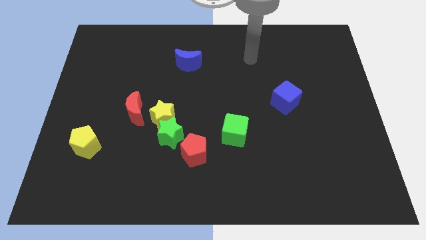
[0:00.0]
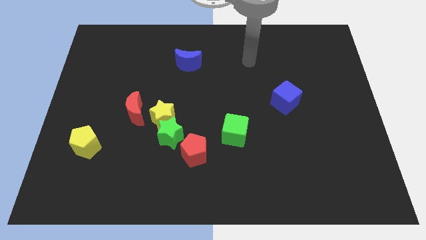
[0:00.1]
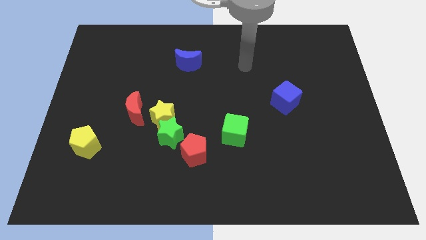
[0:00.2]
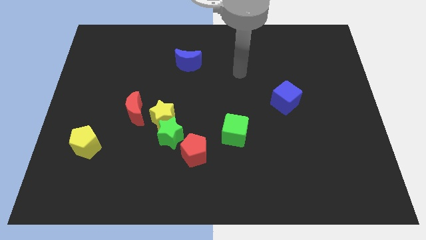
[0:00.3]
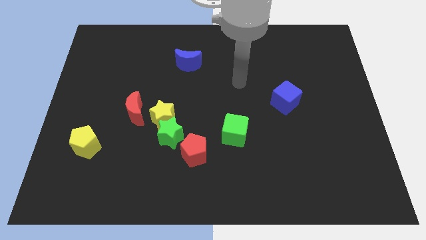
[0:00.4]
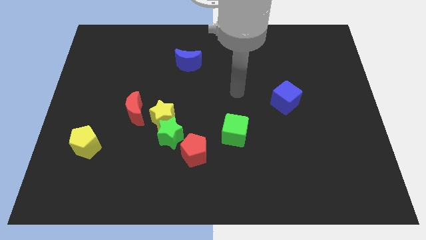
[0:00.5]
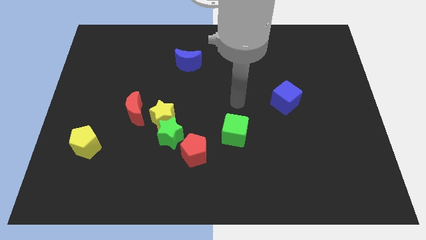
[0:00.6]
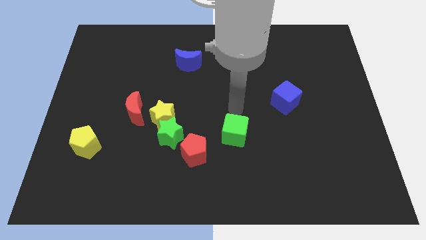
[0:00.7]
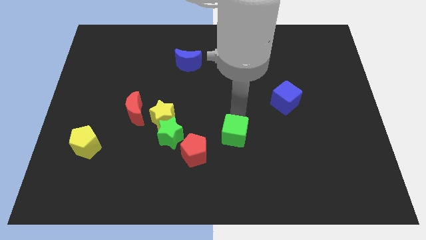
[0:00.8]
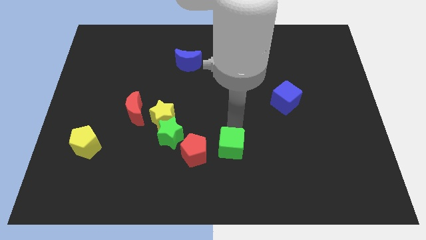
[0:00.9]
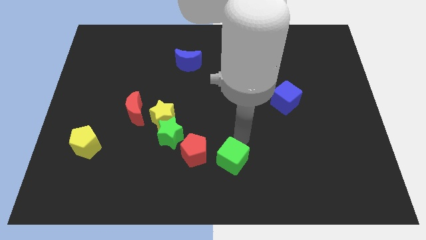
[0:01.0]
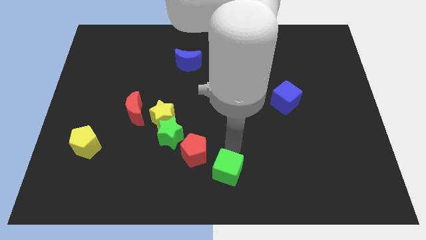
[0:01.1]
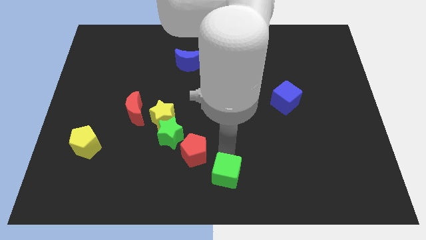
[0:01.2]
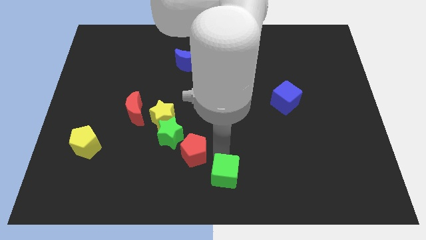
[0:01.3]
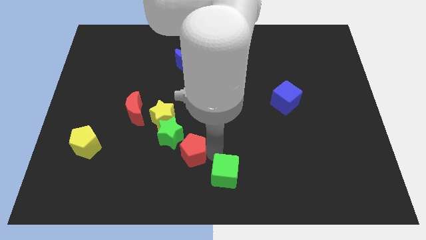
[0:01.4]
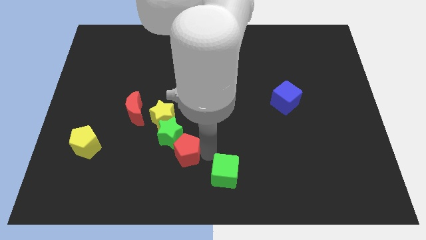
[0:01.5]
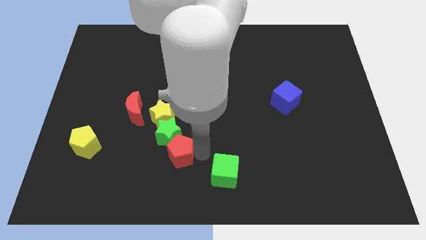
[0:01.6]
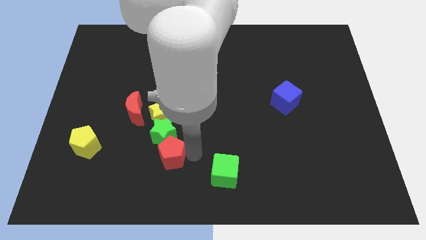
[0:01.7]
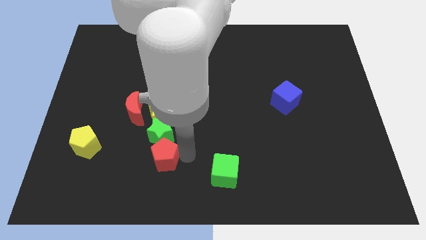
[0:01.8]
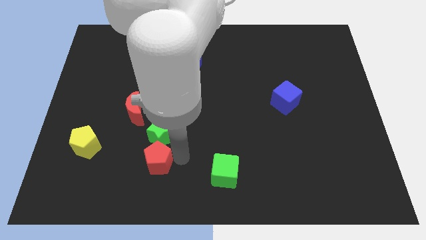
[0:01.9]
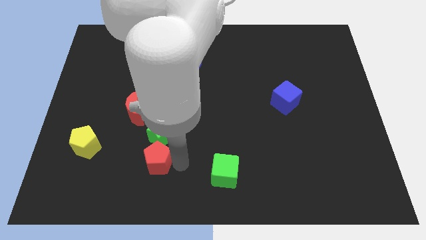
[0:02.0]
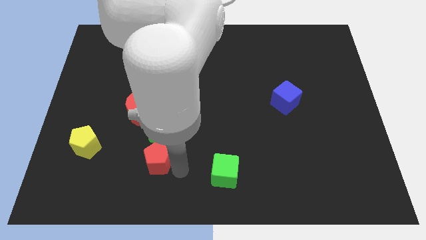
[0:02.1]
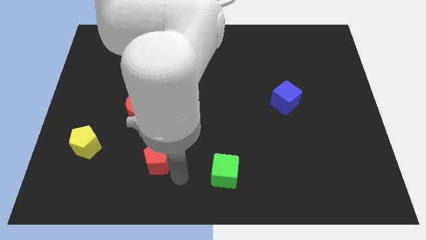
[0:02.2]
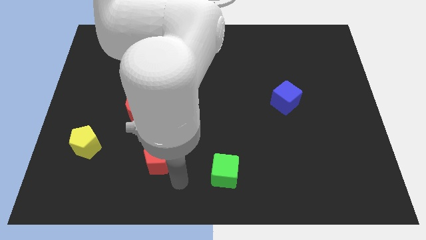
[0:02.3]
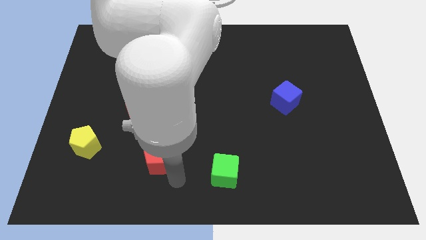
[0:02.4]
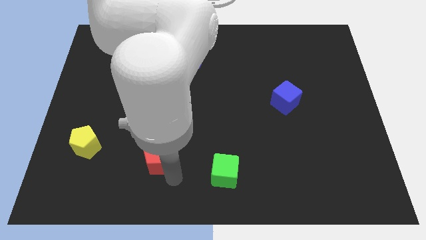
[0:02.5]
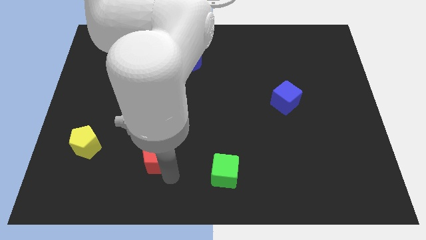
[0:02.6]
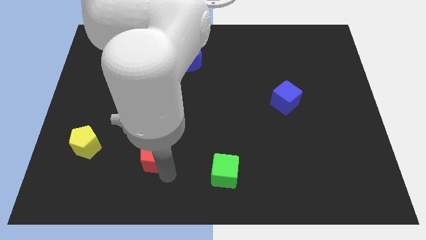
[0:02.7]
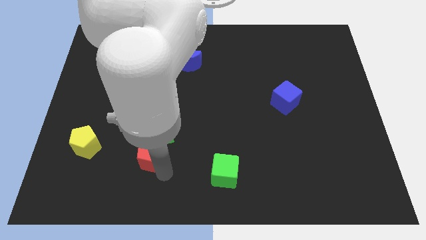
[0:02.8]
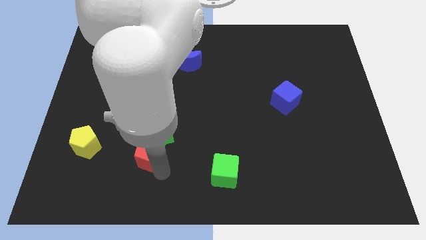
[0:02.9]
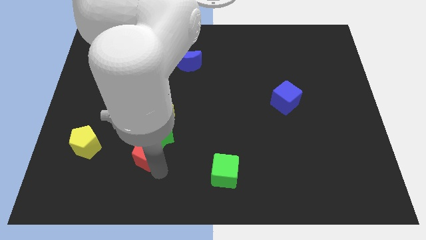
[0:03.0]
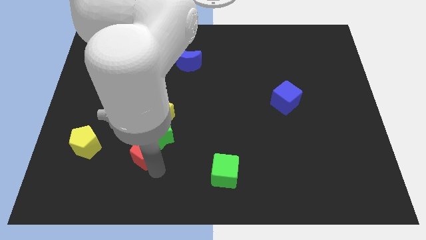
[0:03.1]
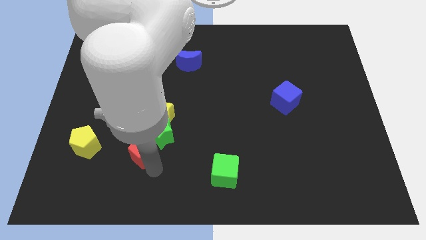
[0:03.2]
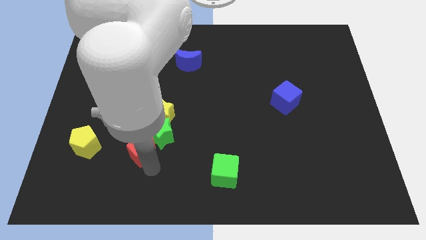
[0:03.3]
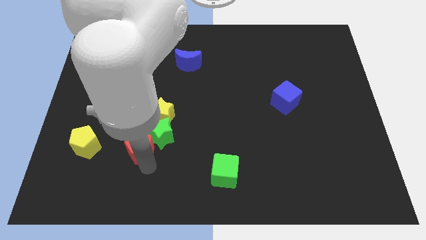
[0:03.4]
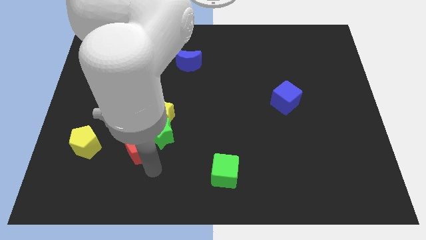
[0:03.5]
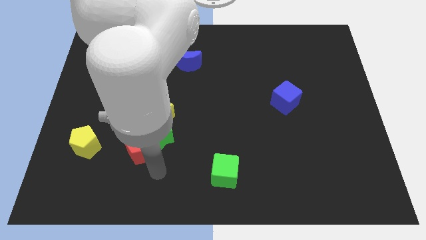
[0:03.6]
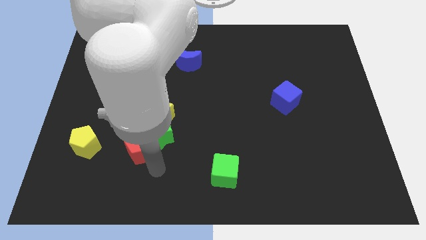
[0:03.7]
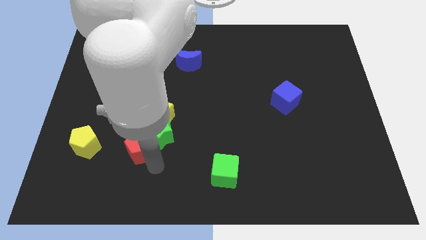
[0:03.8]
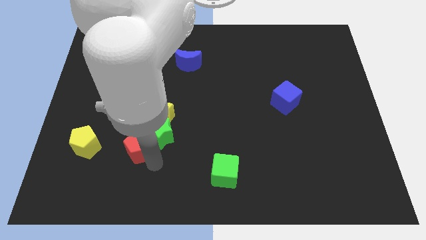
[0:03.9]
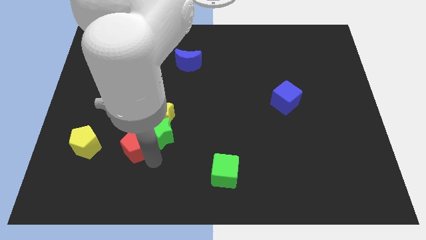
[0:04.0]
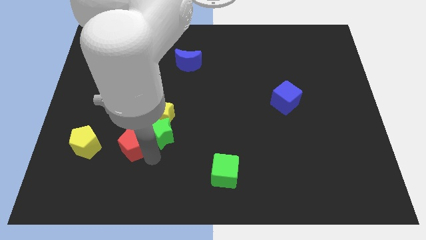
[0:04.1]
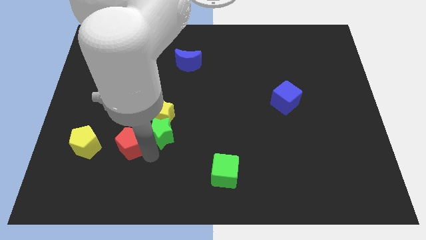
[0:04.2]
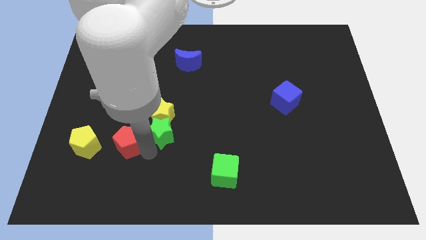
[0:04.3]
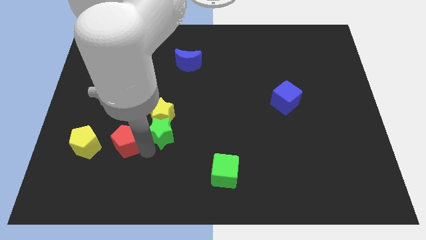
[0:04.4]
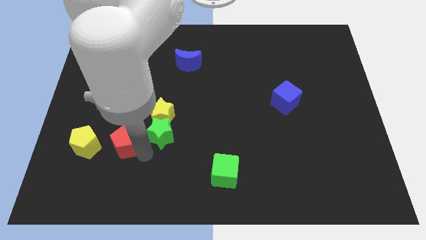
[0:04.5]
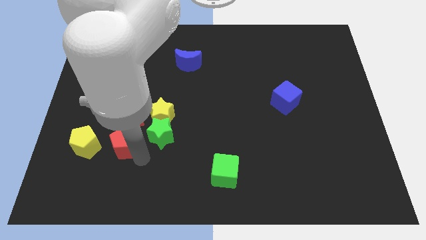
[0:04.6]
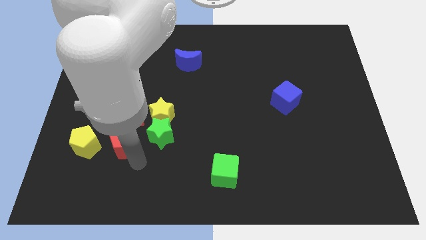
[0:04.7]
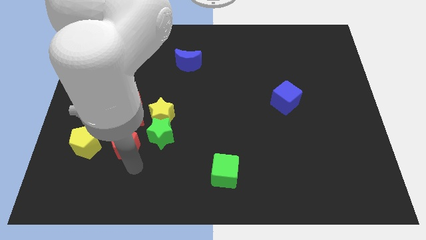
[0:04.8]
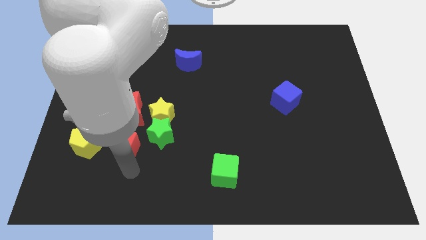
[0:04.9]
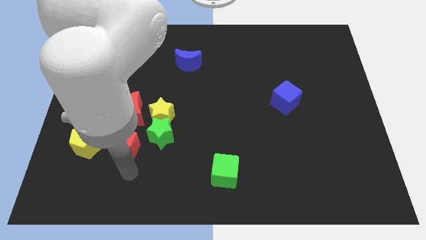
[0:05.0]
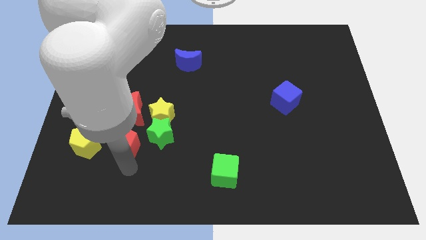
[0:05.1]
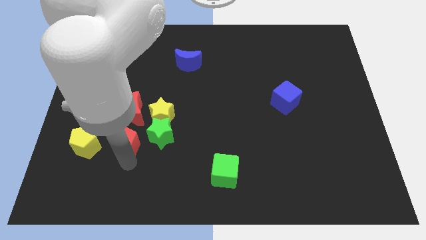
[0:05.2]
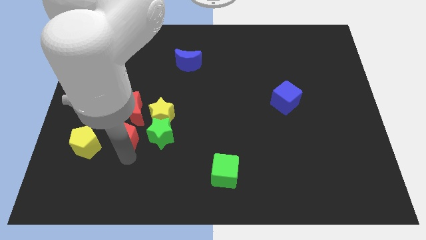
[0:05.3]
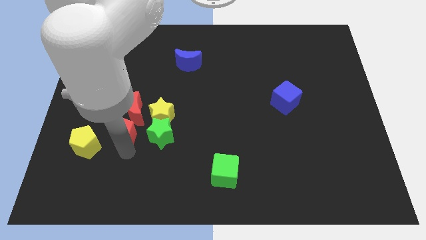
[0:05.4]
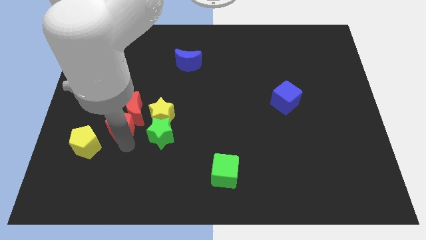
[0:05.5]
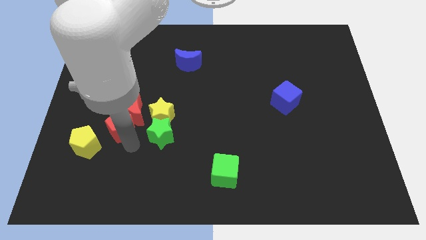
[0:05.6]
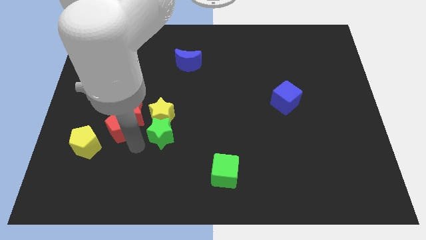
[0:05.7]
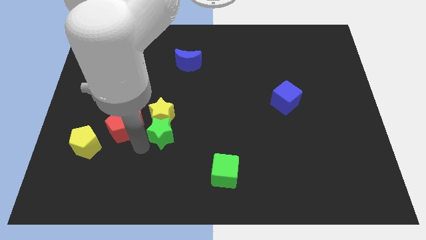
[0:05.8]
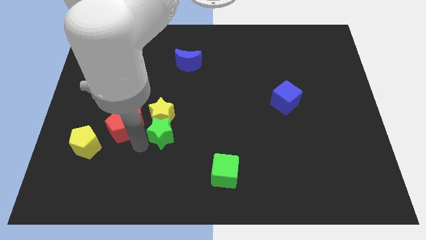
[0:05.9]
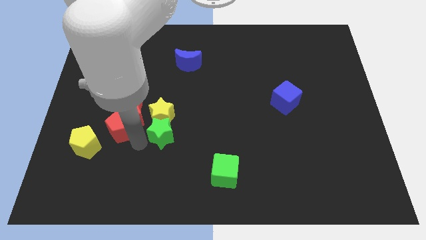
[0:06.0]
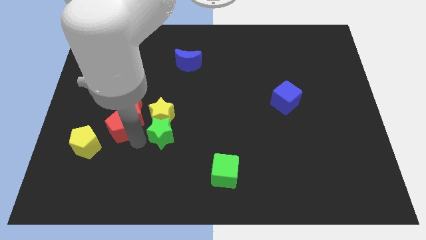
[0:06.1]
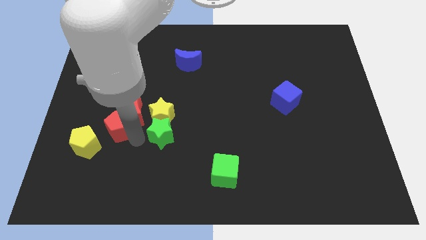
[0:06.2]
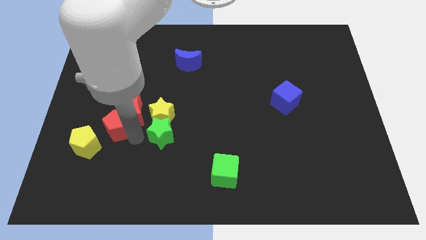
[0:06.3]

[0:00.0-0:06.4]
push the red pentagon just left of the red moon

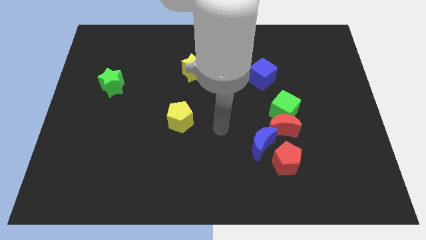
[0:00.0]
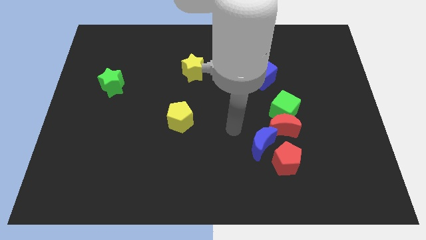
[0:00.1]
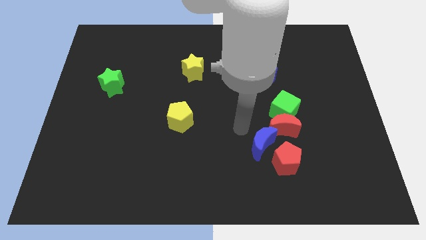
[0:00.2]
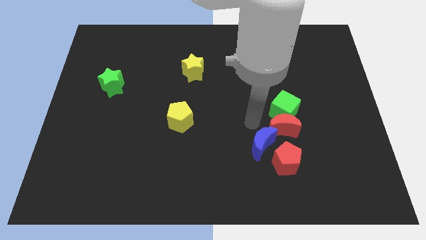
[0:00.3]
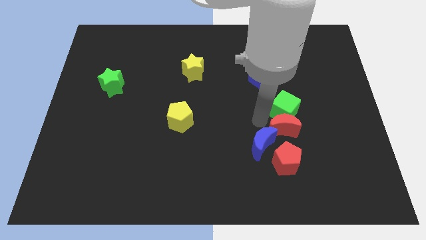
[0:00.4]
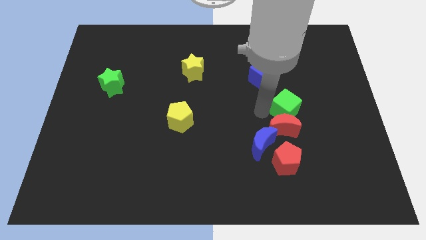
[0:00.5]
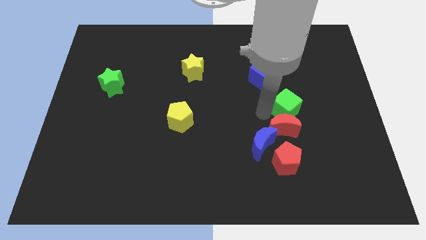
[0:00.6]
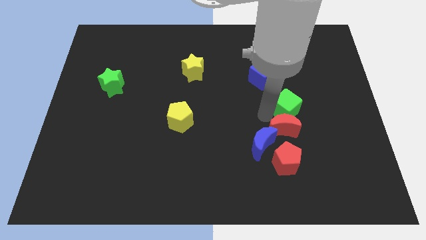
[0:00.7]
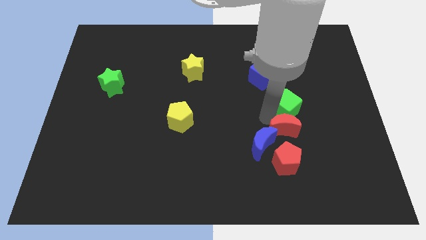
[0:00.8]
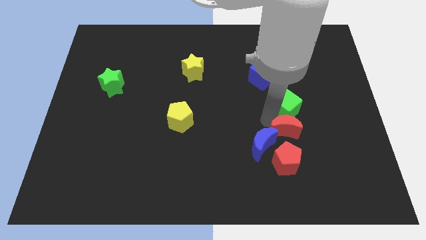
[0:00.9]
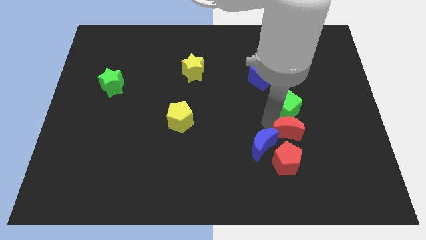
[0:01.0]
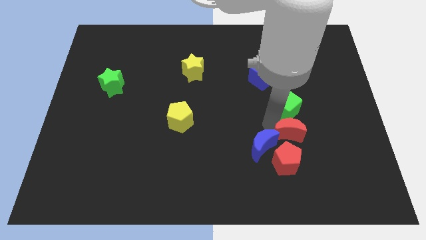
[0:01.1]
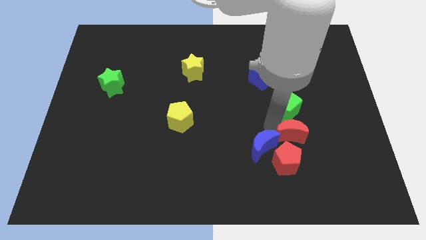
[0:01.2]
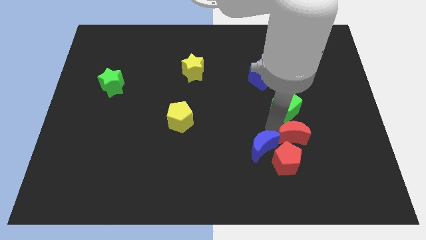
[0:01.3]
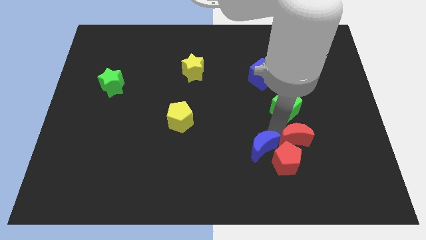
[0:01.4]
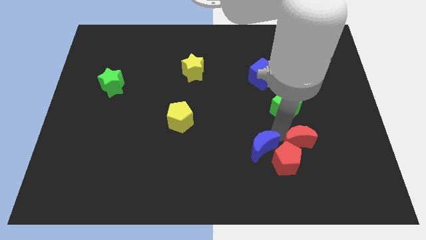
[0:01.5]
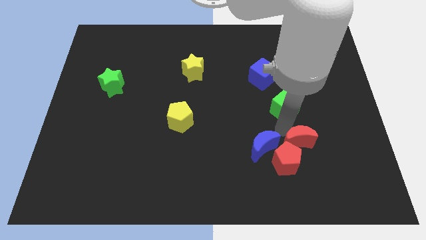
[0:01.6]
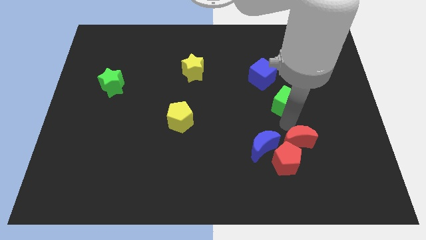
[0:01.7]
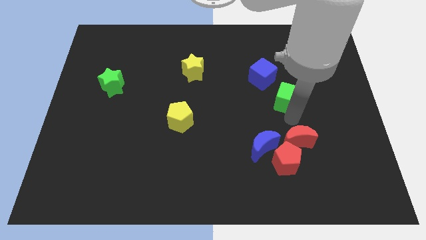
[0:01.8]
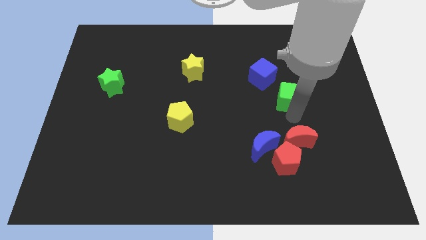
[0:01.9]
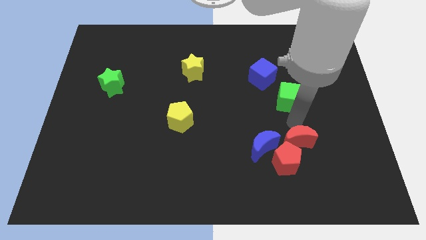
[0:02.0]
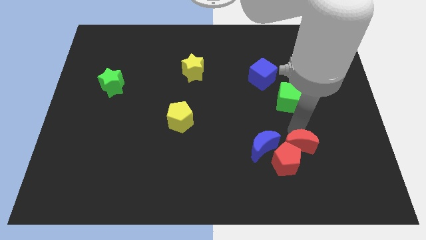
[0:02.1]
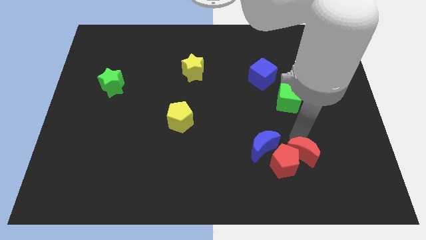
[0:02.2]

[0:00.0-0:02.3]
move the red moon to the bottom right of the blue moon
